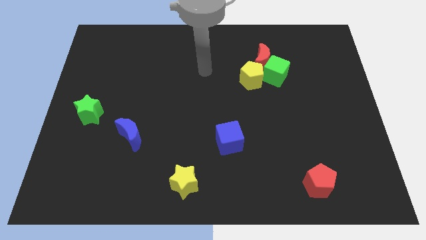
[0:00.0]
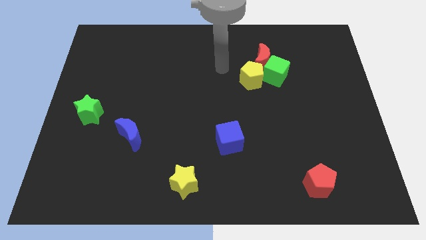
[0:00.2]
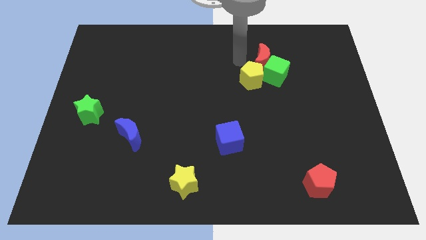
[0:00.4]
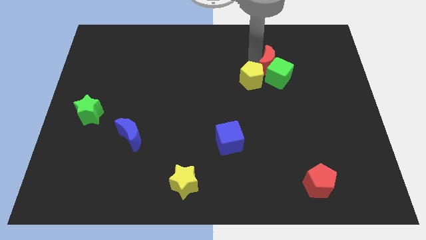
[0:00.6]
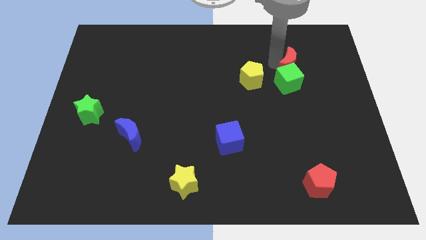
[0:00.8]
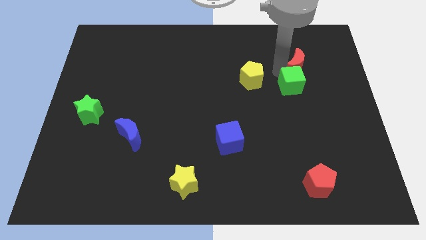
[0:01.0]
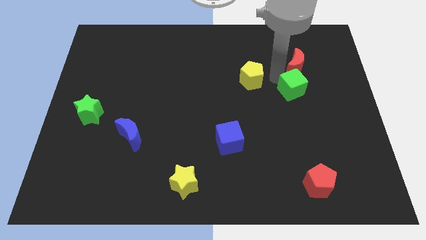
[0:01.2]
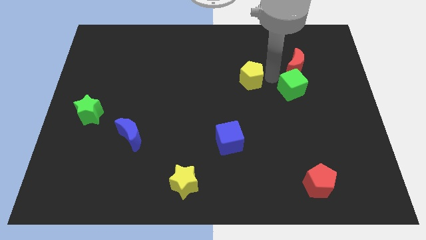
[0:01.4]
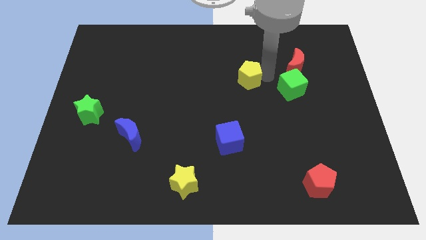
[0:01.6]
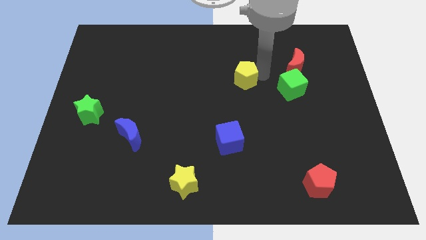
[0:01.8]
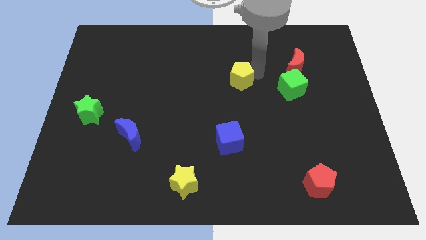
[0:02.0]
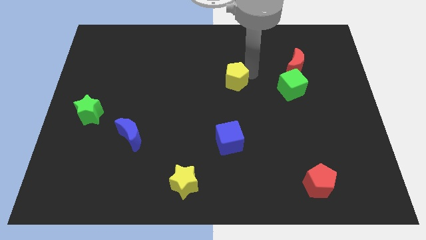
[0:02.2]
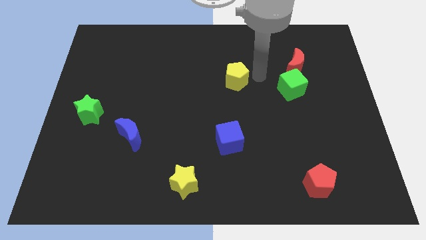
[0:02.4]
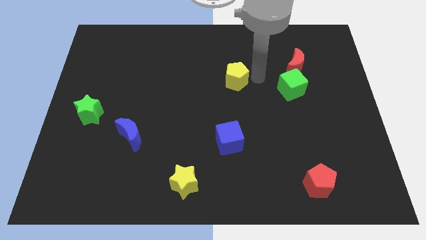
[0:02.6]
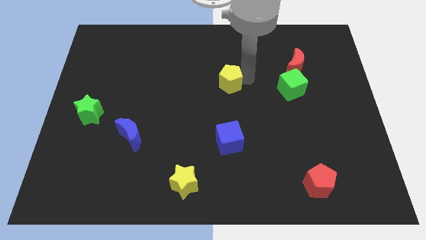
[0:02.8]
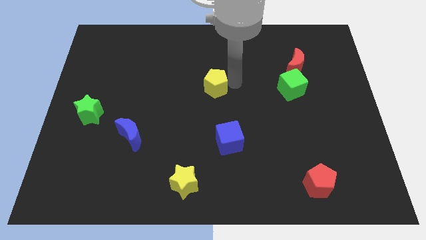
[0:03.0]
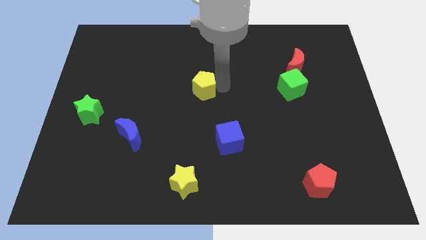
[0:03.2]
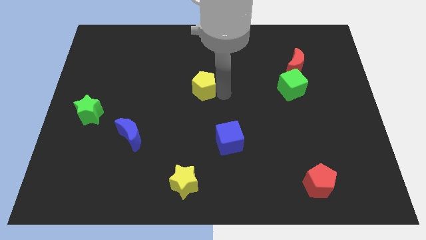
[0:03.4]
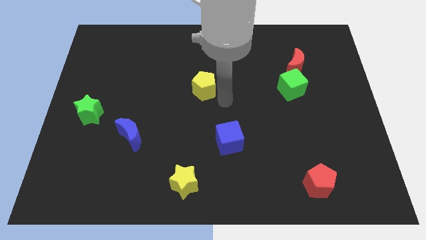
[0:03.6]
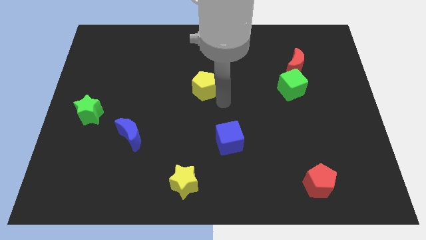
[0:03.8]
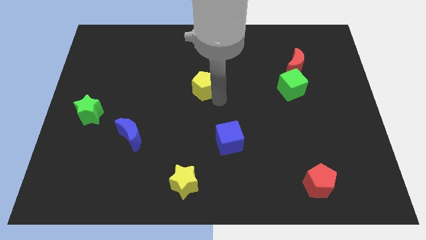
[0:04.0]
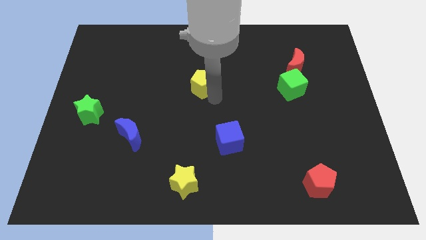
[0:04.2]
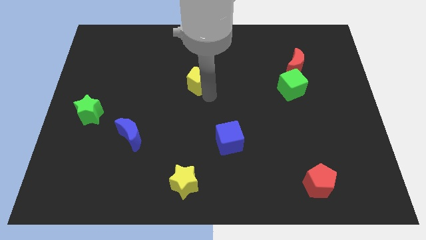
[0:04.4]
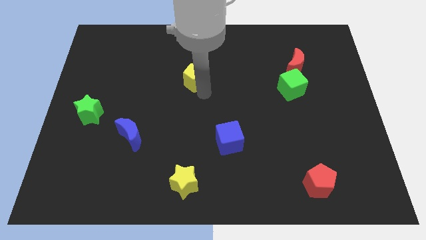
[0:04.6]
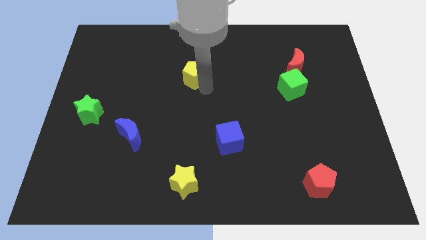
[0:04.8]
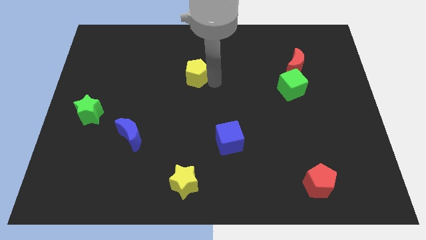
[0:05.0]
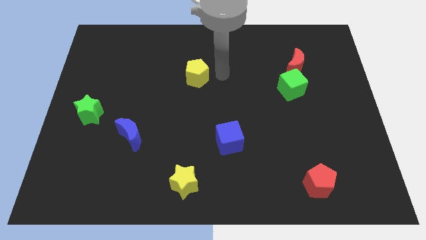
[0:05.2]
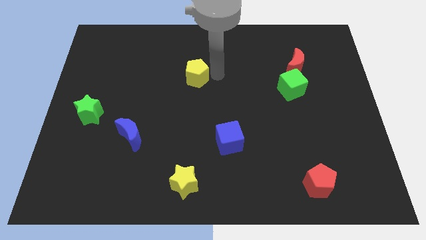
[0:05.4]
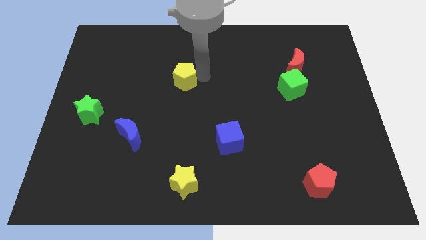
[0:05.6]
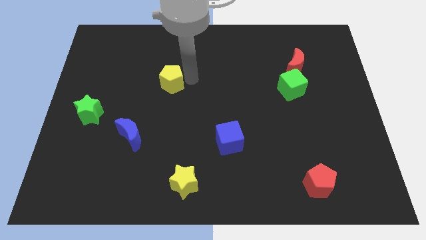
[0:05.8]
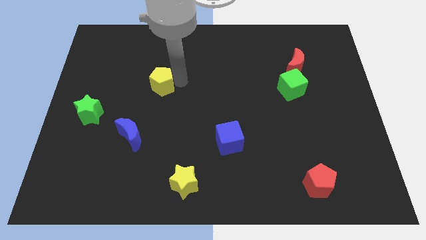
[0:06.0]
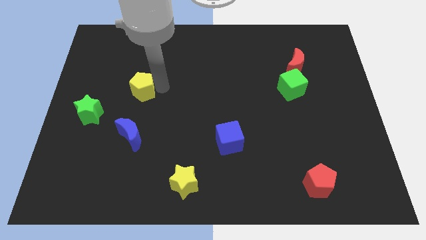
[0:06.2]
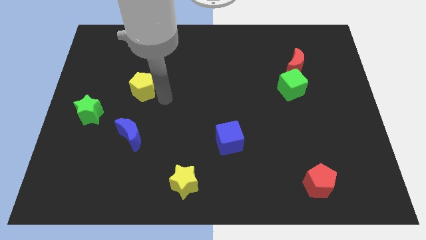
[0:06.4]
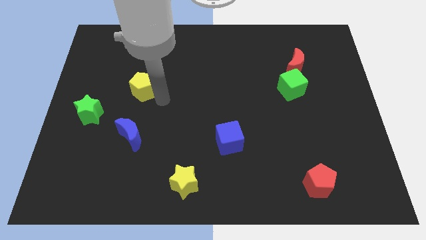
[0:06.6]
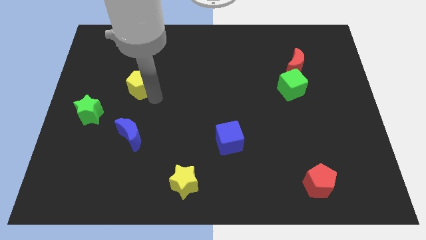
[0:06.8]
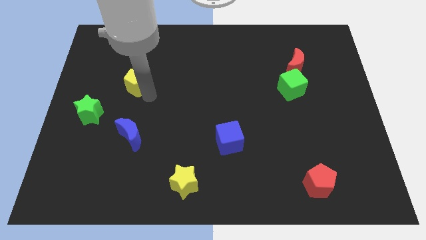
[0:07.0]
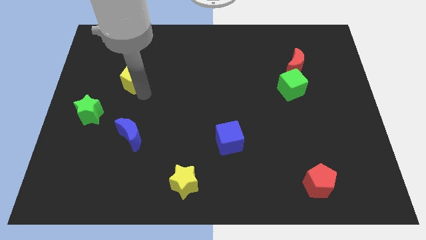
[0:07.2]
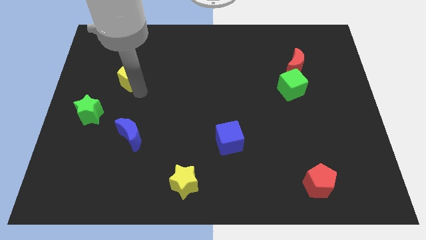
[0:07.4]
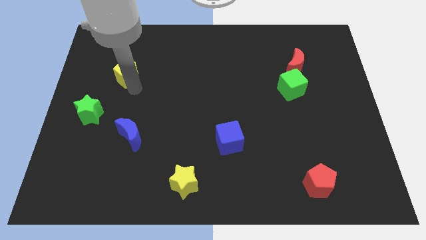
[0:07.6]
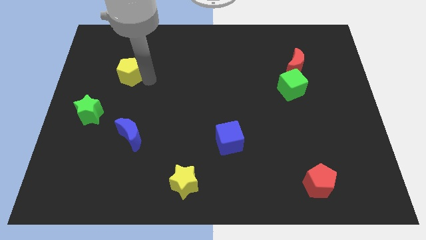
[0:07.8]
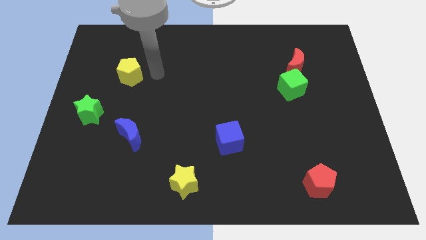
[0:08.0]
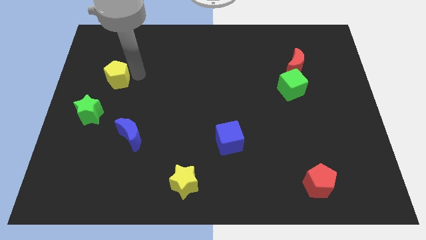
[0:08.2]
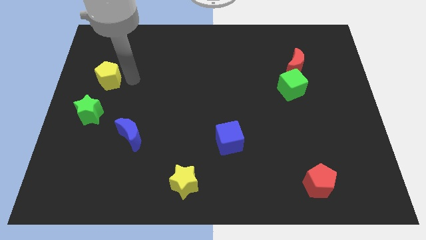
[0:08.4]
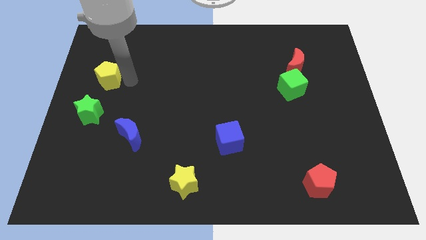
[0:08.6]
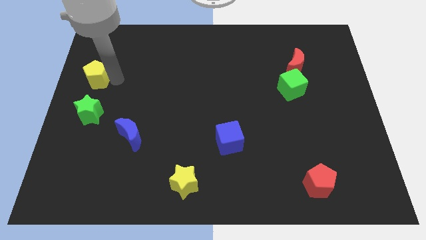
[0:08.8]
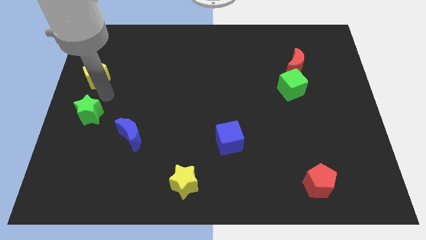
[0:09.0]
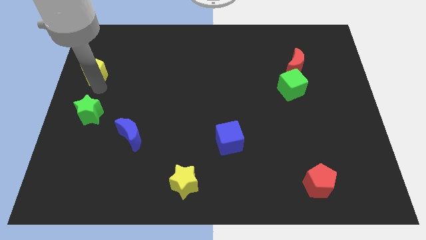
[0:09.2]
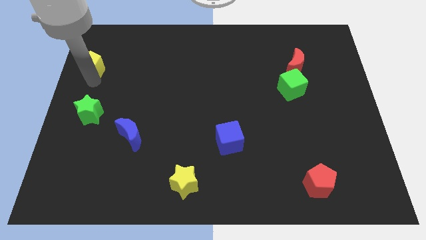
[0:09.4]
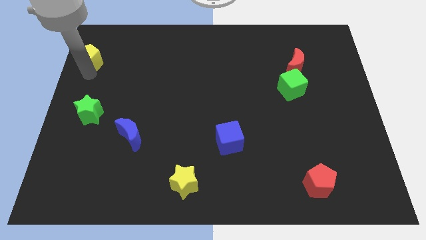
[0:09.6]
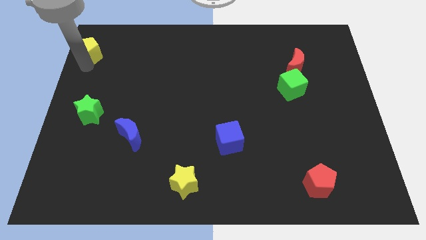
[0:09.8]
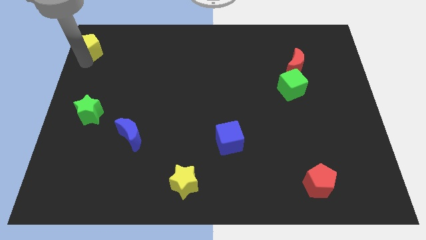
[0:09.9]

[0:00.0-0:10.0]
slide the yellow pentagon to the top left of the board

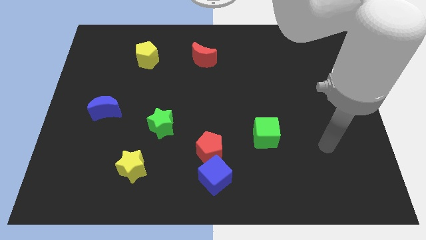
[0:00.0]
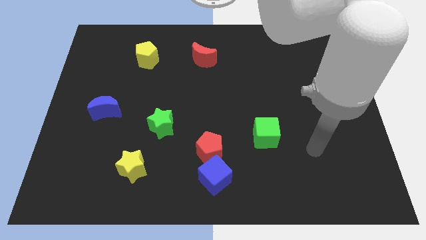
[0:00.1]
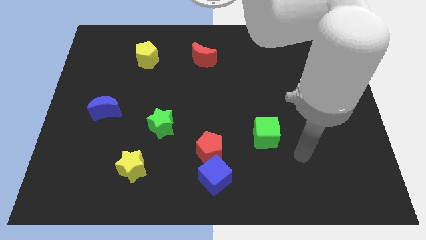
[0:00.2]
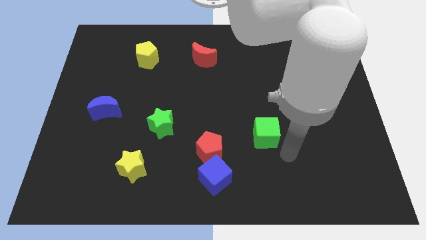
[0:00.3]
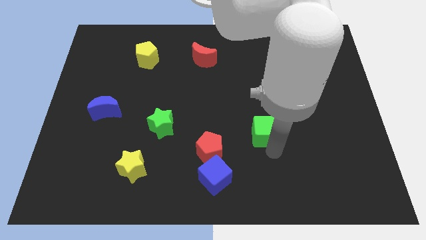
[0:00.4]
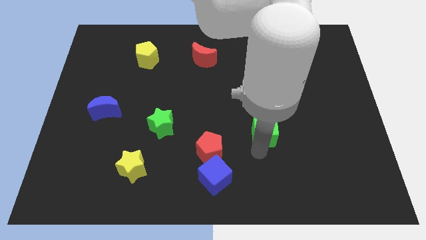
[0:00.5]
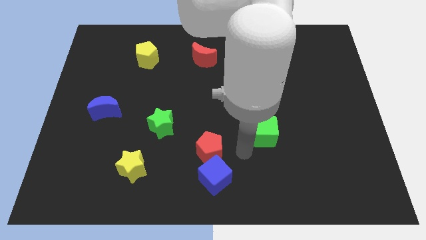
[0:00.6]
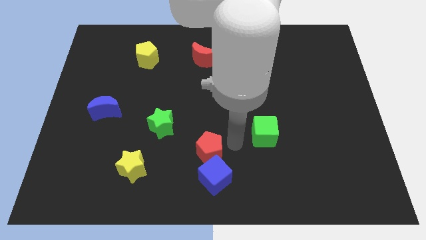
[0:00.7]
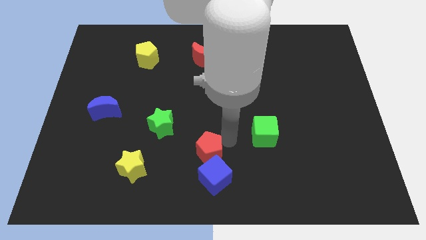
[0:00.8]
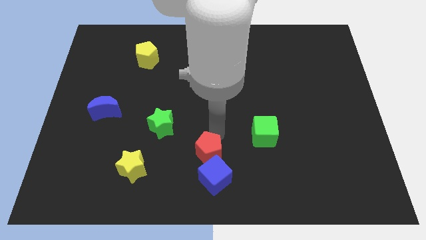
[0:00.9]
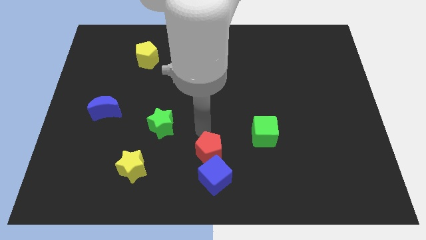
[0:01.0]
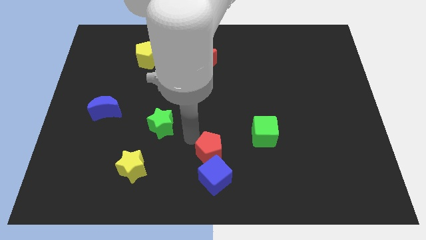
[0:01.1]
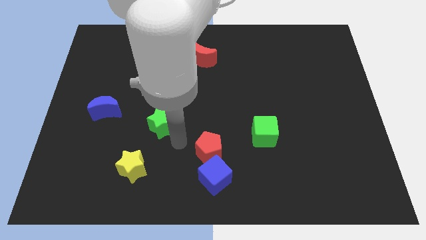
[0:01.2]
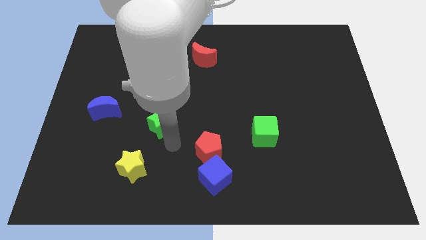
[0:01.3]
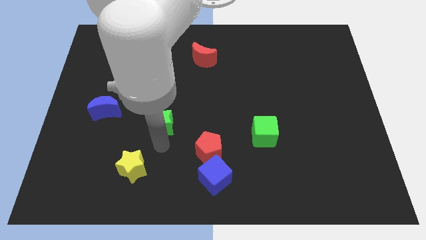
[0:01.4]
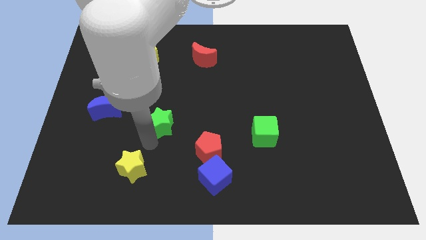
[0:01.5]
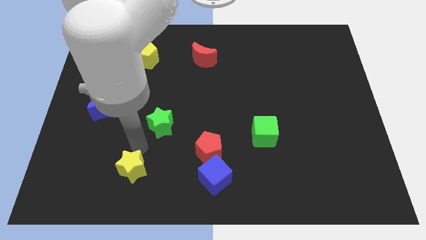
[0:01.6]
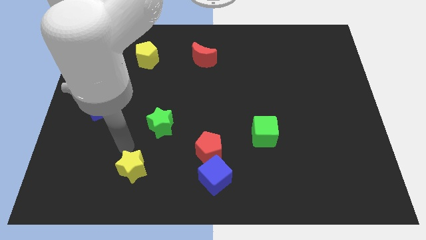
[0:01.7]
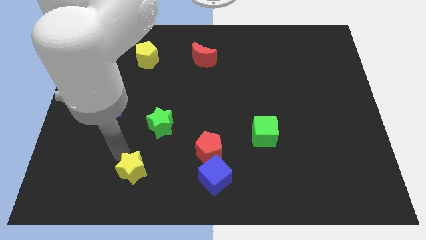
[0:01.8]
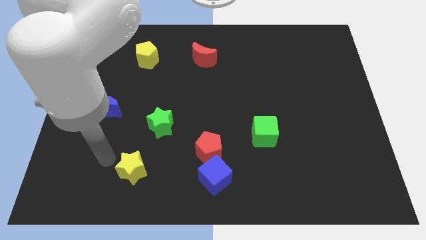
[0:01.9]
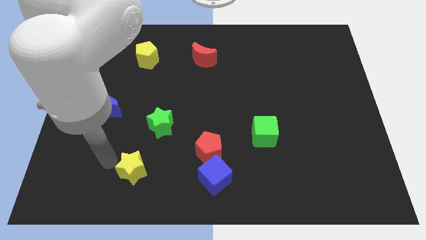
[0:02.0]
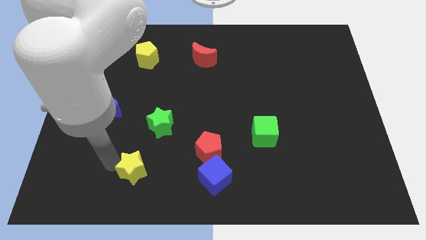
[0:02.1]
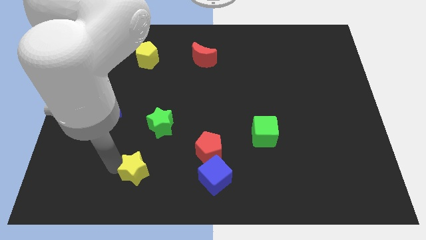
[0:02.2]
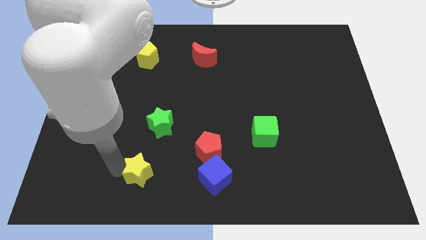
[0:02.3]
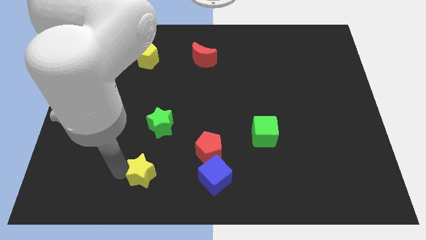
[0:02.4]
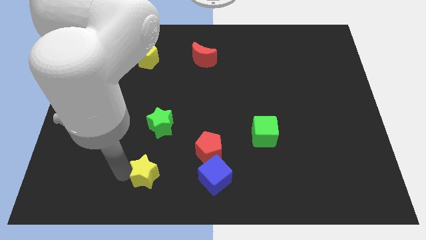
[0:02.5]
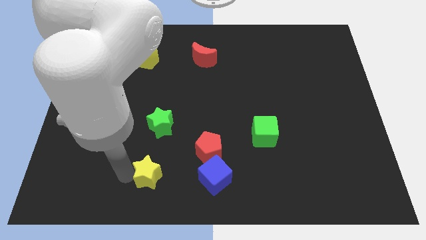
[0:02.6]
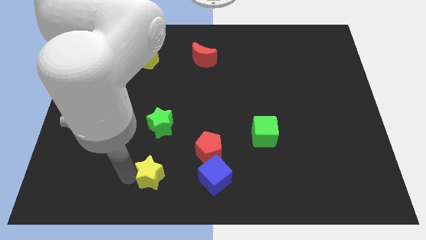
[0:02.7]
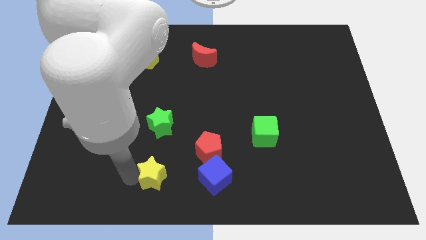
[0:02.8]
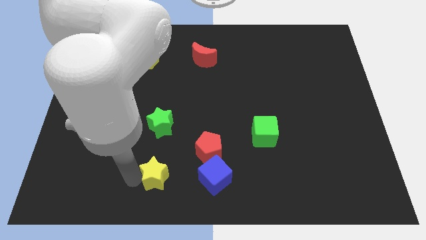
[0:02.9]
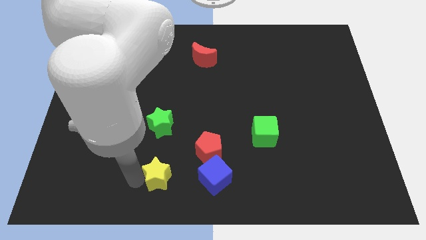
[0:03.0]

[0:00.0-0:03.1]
slide the yellow star to the bottom
